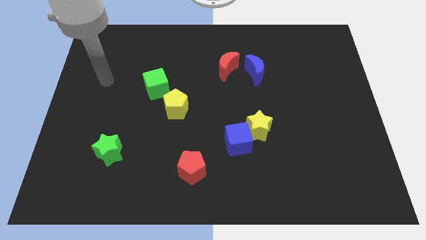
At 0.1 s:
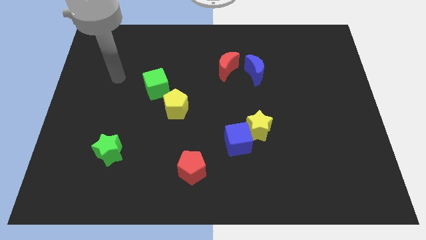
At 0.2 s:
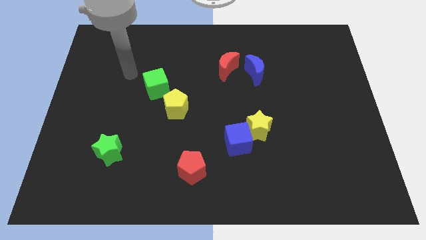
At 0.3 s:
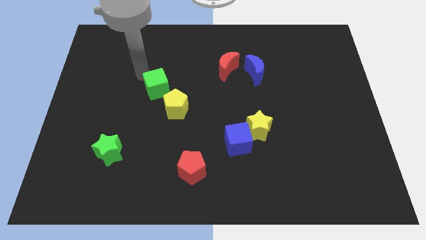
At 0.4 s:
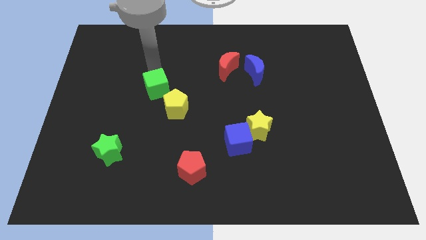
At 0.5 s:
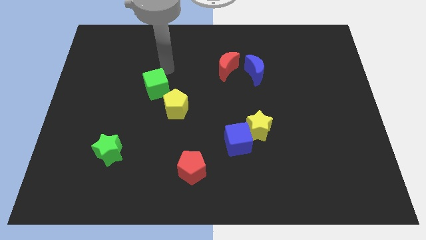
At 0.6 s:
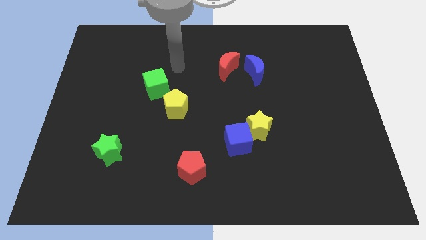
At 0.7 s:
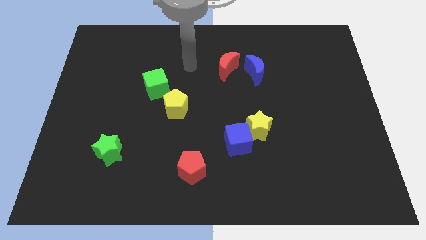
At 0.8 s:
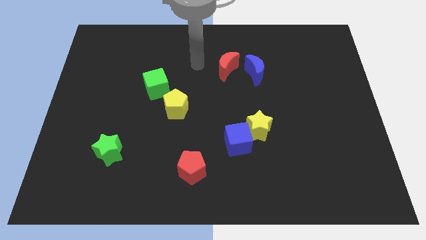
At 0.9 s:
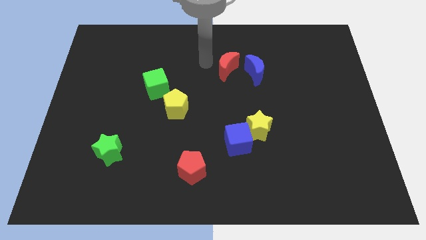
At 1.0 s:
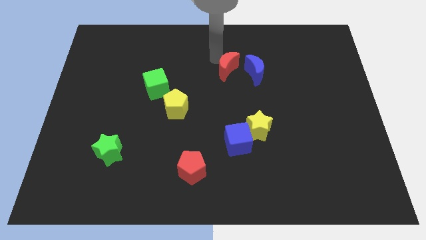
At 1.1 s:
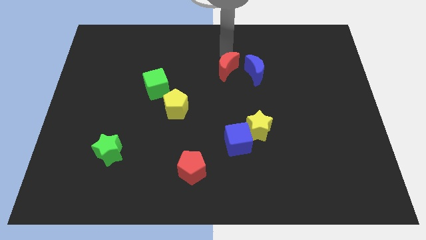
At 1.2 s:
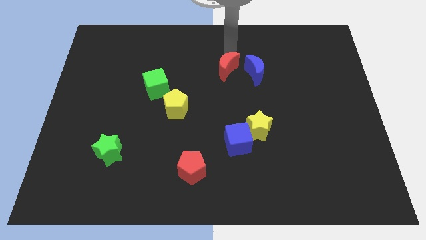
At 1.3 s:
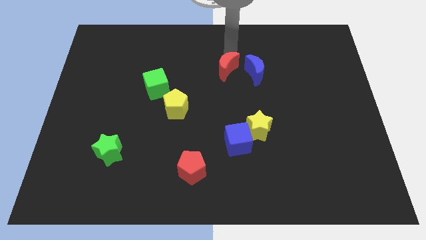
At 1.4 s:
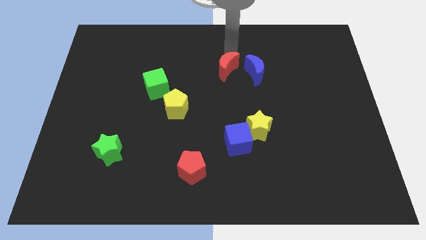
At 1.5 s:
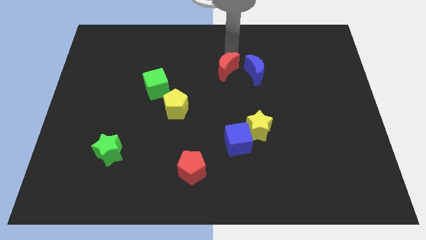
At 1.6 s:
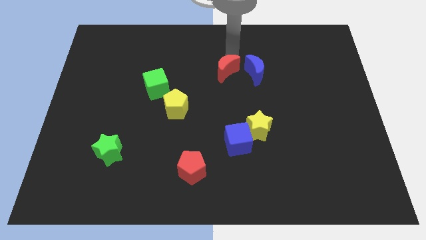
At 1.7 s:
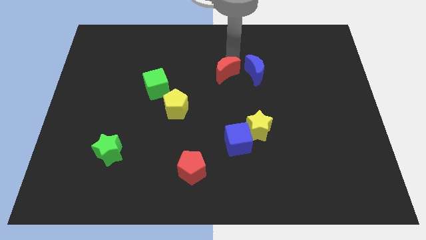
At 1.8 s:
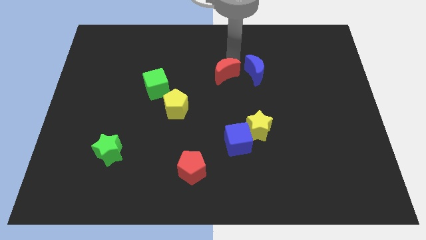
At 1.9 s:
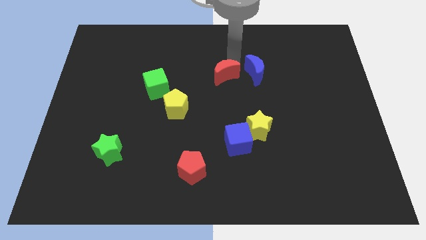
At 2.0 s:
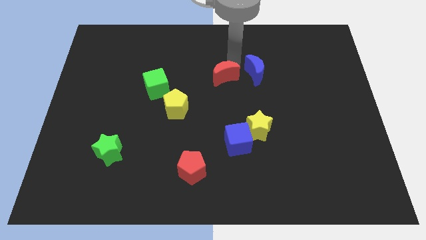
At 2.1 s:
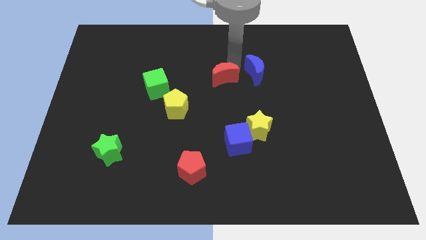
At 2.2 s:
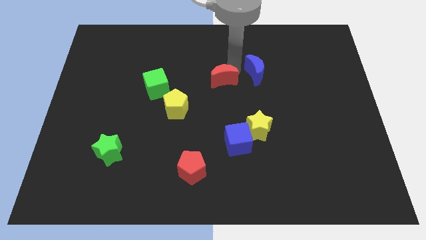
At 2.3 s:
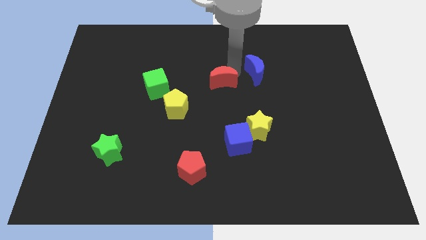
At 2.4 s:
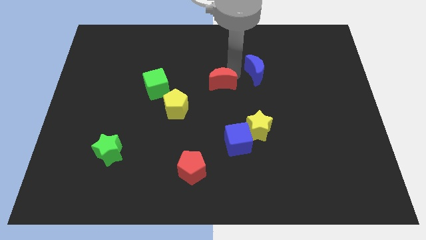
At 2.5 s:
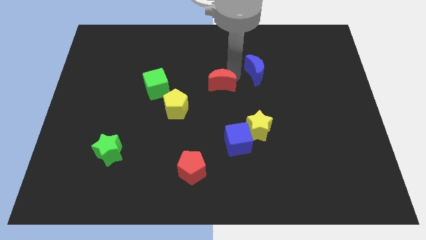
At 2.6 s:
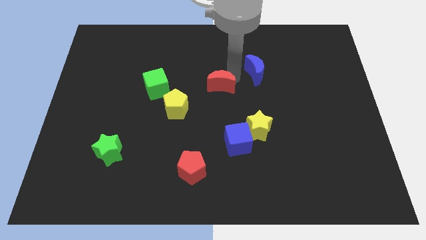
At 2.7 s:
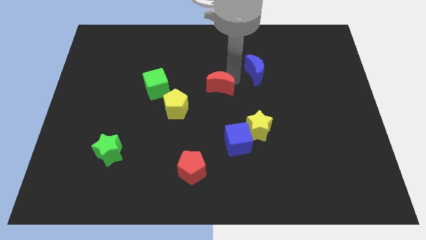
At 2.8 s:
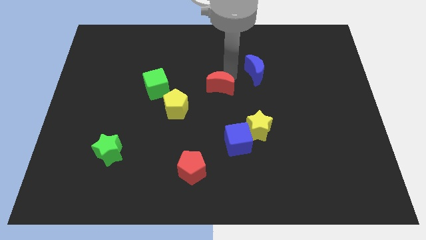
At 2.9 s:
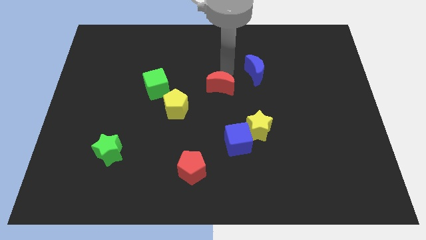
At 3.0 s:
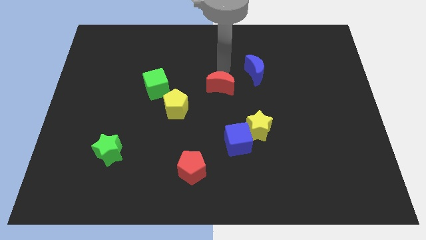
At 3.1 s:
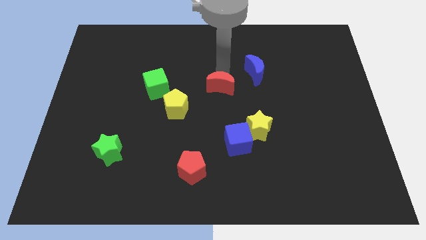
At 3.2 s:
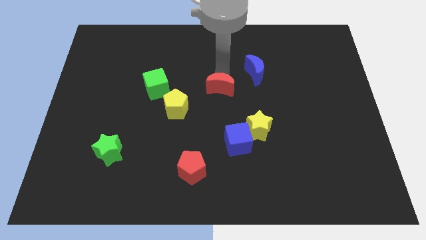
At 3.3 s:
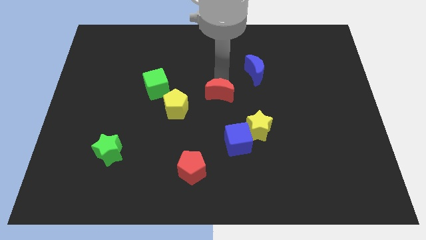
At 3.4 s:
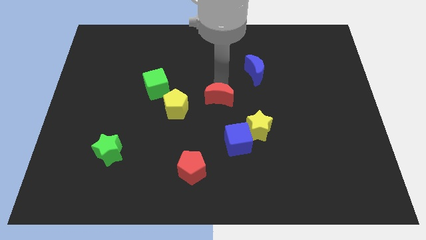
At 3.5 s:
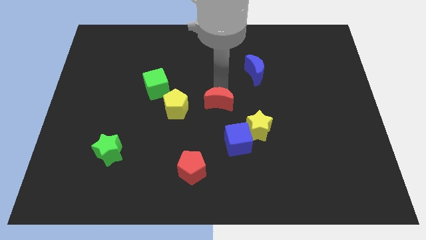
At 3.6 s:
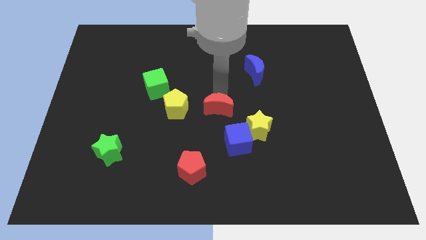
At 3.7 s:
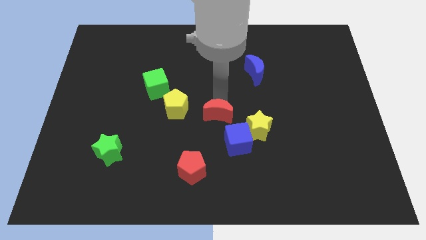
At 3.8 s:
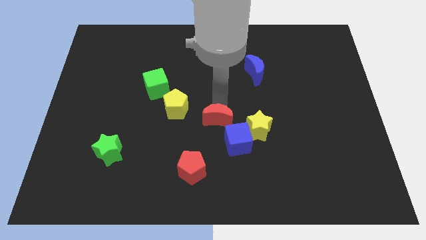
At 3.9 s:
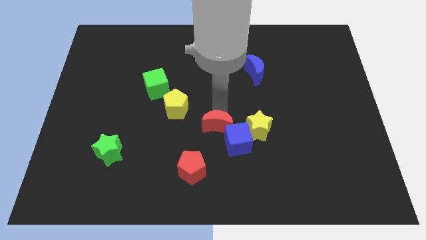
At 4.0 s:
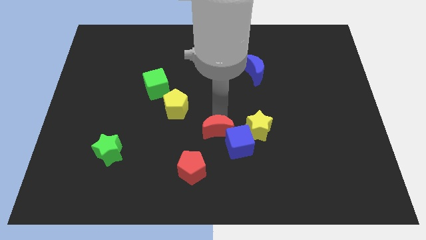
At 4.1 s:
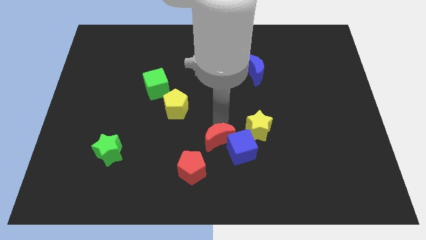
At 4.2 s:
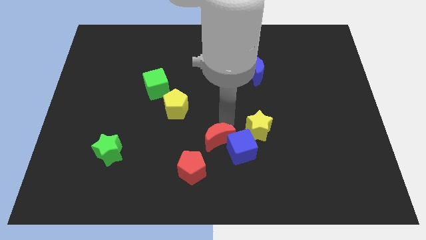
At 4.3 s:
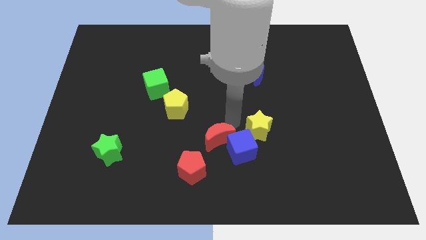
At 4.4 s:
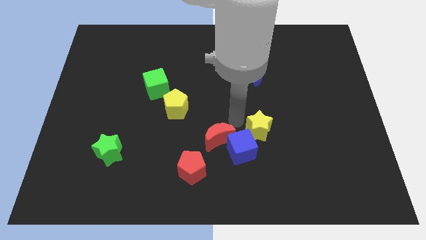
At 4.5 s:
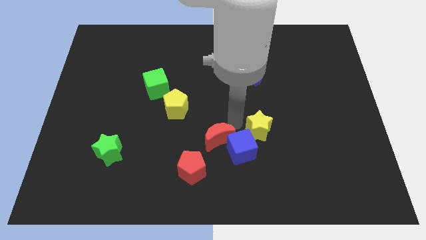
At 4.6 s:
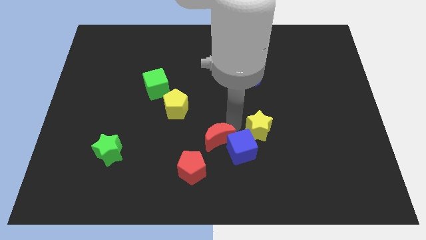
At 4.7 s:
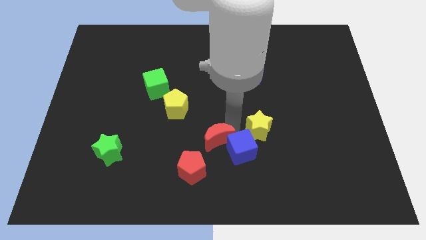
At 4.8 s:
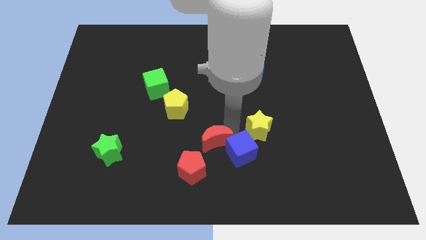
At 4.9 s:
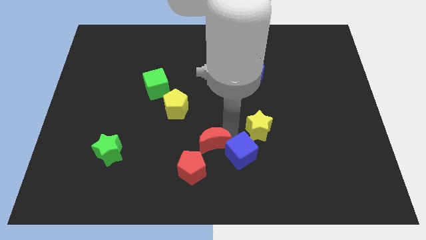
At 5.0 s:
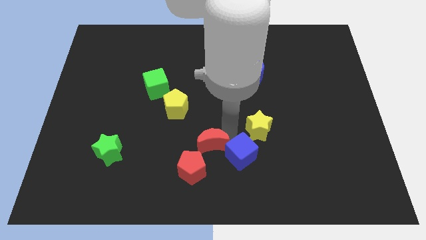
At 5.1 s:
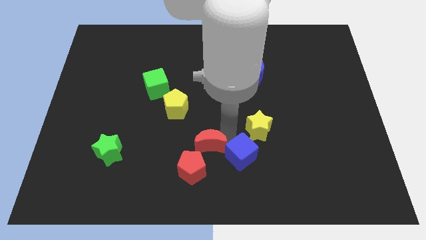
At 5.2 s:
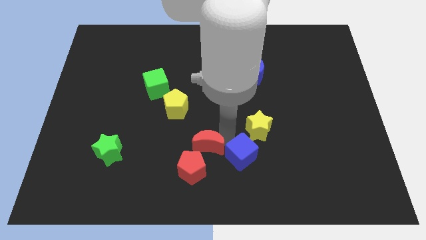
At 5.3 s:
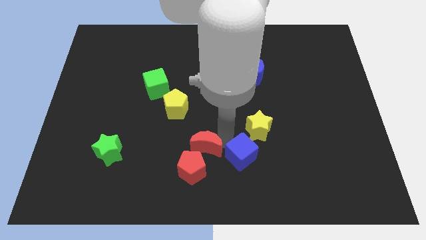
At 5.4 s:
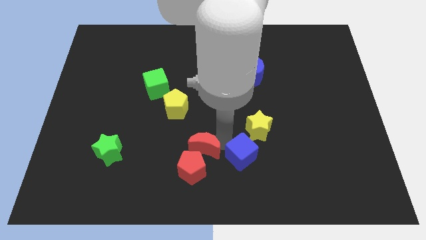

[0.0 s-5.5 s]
push the red moon next to the red pentagon

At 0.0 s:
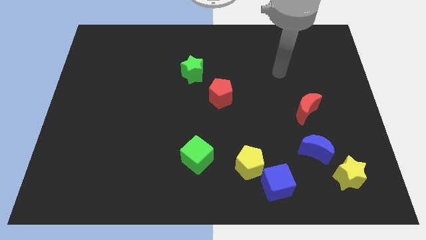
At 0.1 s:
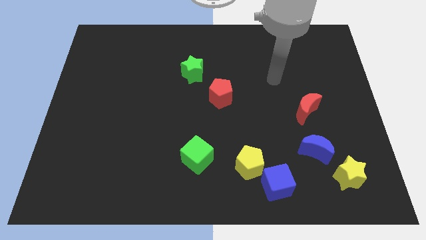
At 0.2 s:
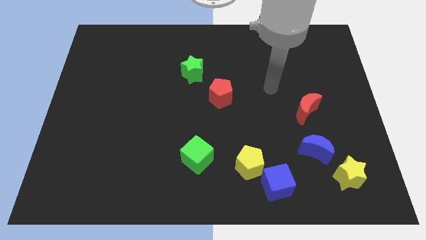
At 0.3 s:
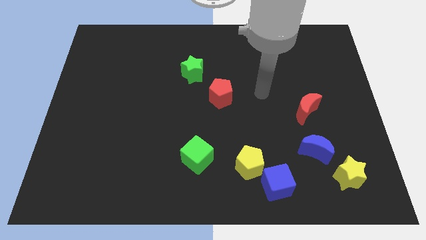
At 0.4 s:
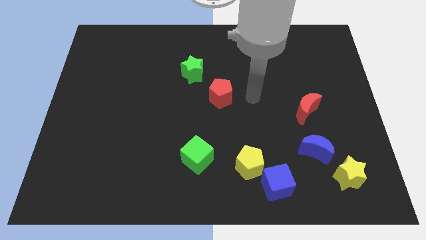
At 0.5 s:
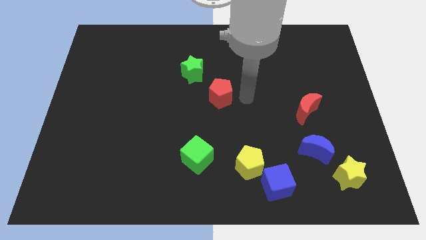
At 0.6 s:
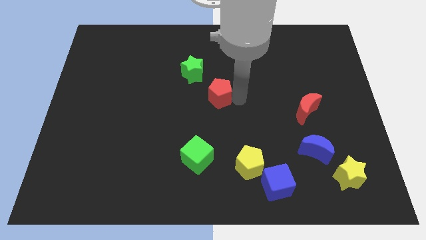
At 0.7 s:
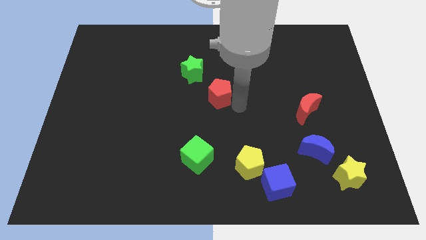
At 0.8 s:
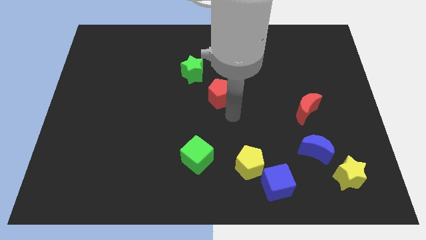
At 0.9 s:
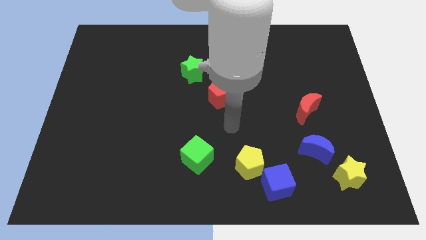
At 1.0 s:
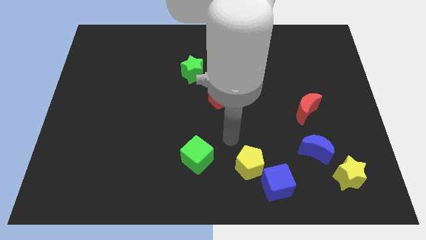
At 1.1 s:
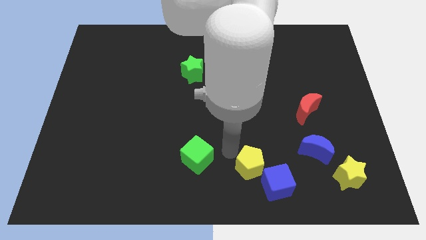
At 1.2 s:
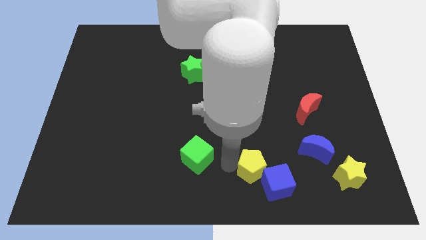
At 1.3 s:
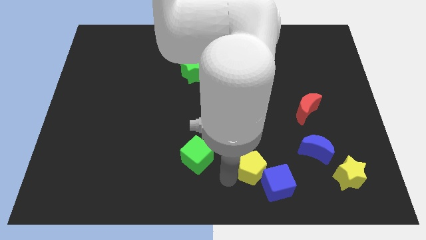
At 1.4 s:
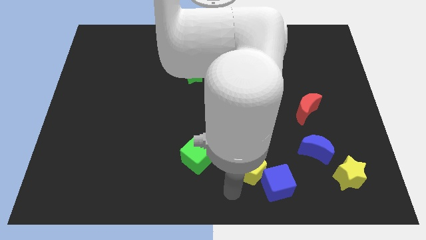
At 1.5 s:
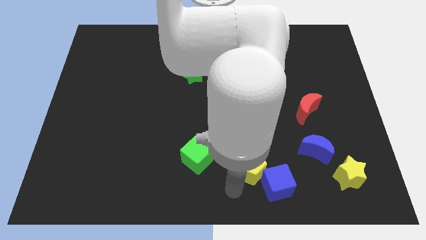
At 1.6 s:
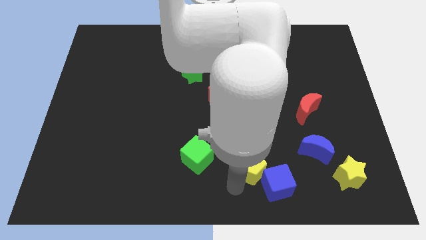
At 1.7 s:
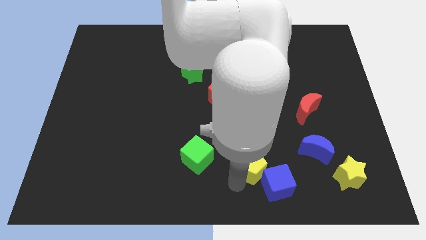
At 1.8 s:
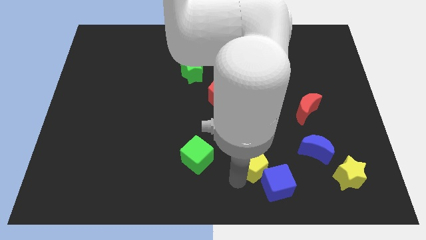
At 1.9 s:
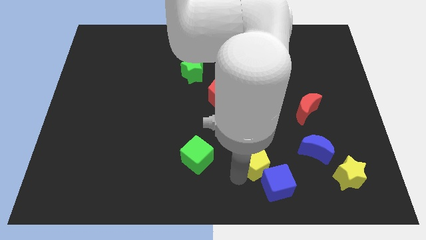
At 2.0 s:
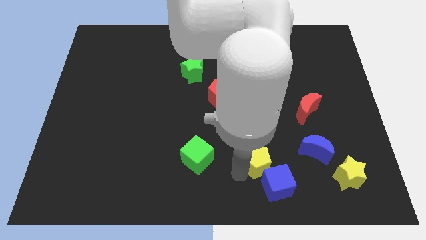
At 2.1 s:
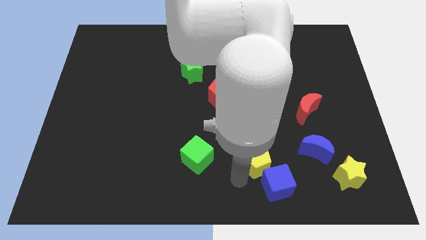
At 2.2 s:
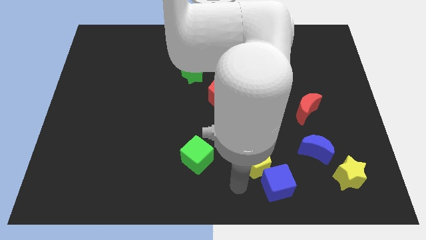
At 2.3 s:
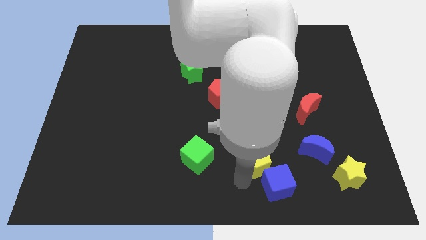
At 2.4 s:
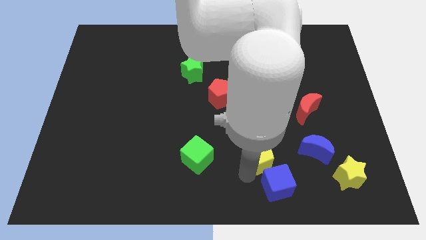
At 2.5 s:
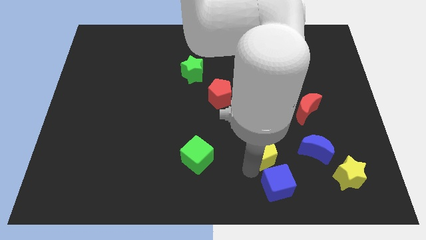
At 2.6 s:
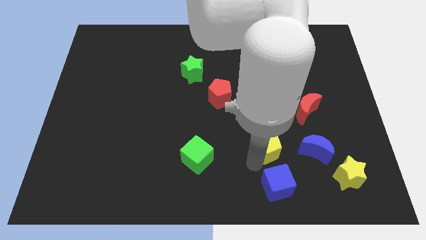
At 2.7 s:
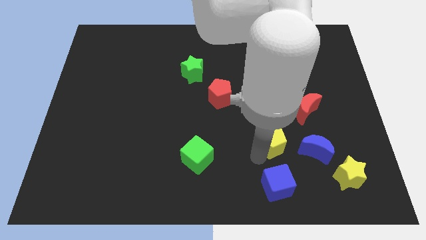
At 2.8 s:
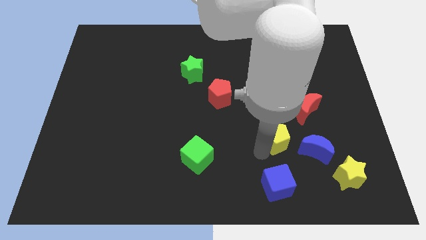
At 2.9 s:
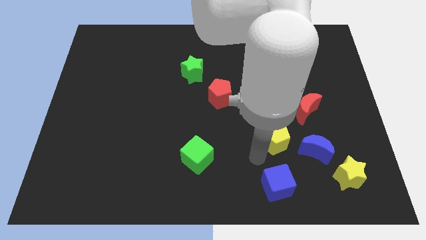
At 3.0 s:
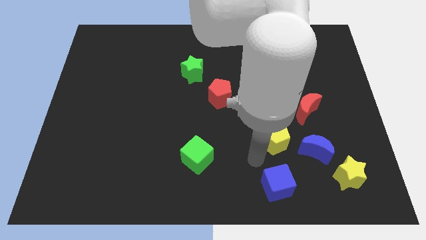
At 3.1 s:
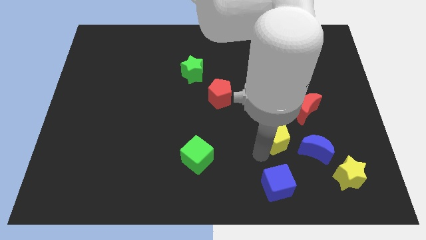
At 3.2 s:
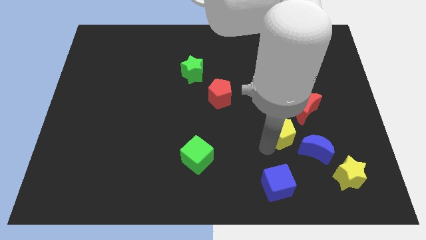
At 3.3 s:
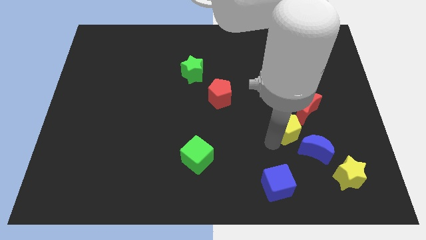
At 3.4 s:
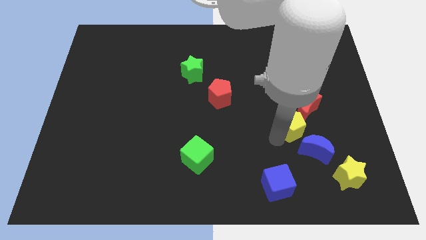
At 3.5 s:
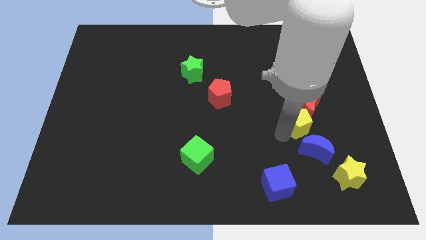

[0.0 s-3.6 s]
put the yellow pentagon close to the red moon
